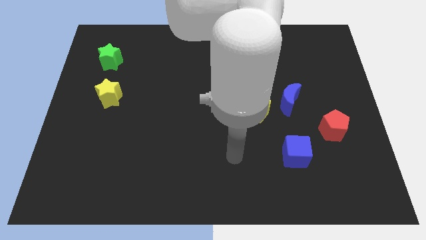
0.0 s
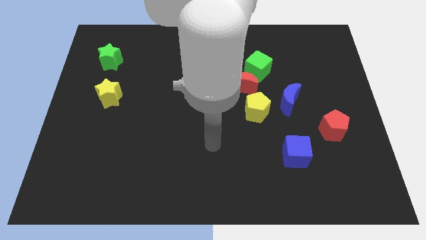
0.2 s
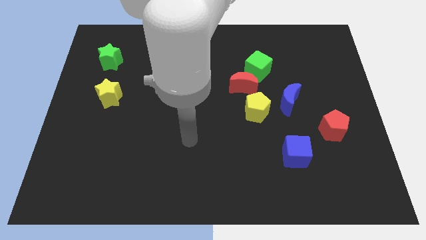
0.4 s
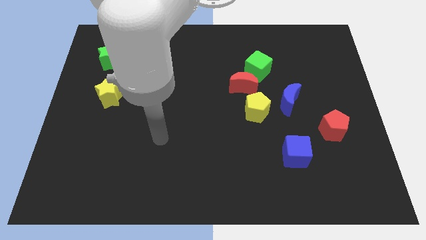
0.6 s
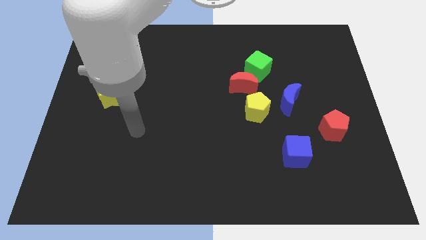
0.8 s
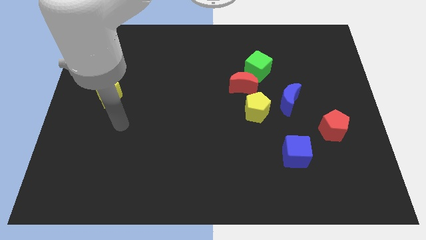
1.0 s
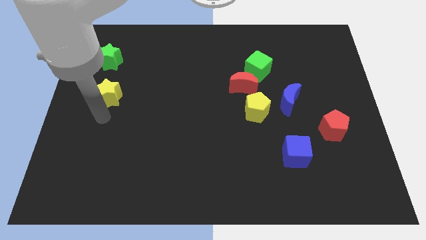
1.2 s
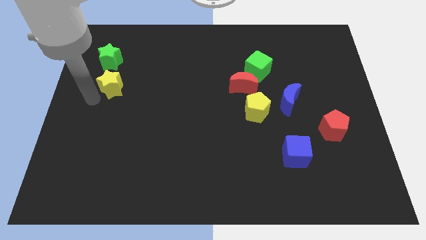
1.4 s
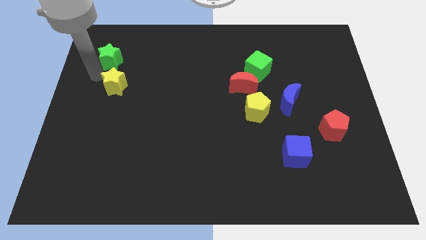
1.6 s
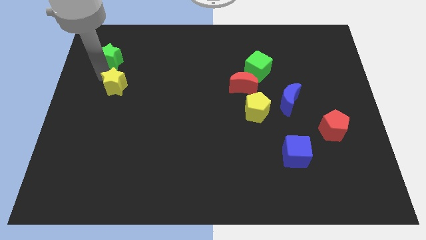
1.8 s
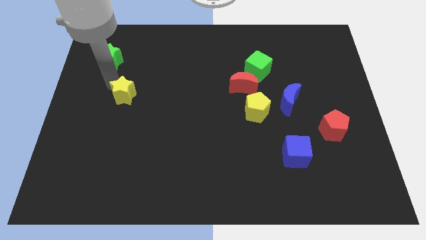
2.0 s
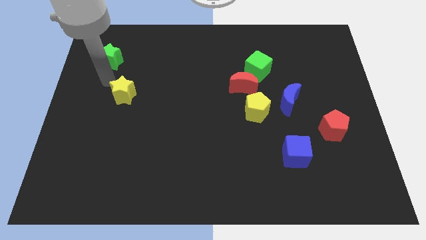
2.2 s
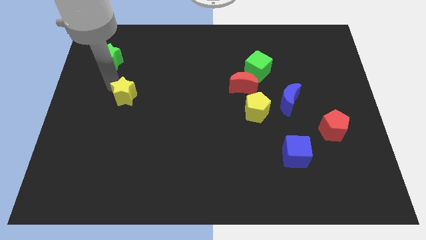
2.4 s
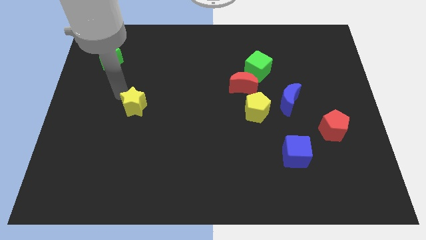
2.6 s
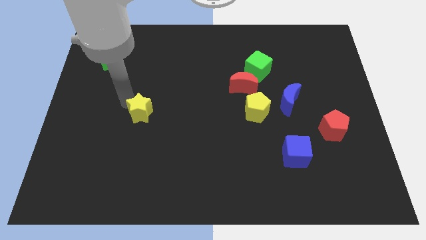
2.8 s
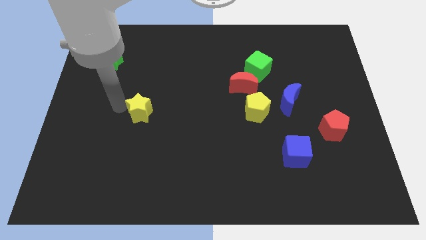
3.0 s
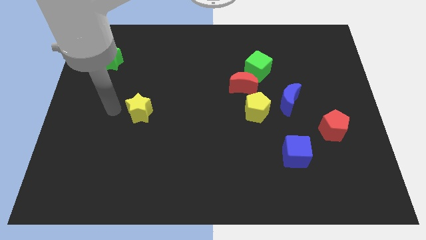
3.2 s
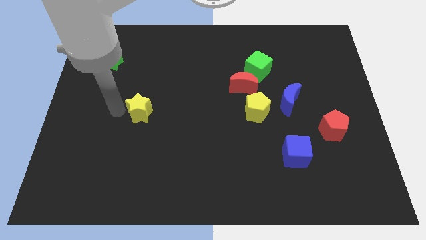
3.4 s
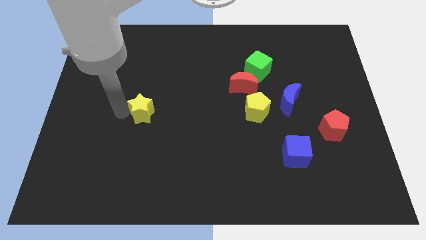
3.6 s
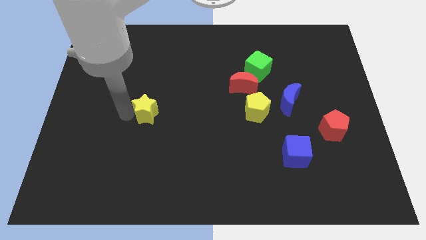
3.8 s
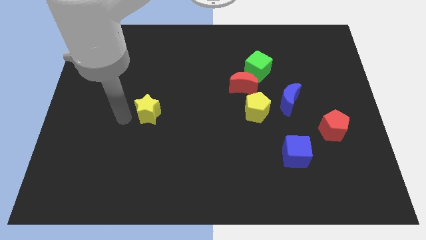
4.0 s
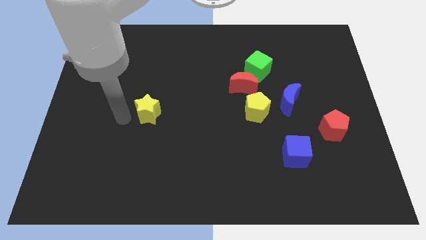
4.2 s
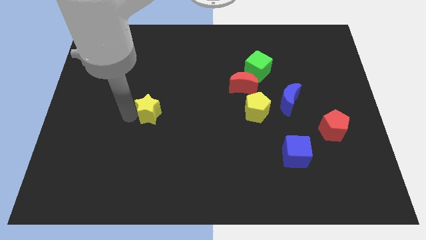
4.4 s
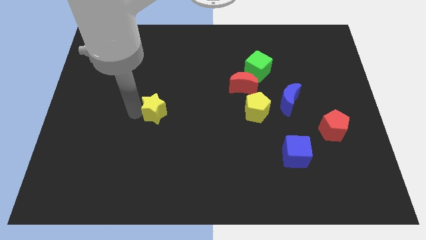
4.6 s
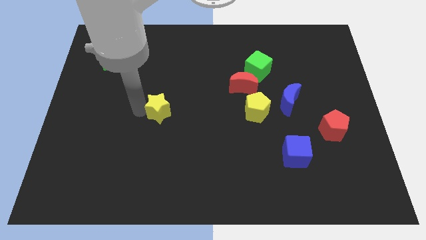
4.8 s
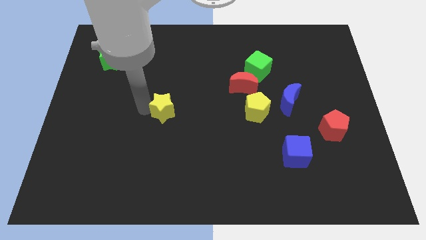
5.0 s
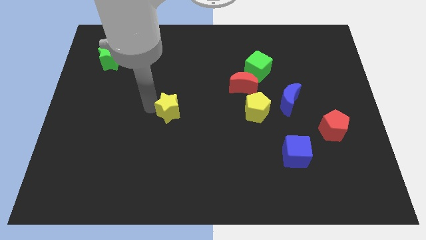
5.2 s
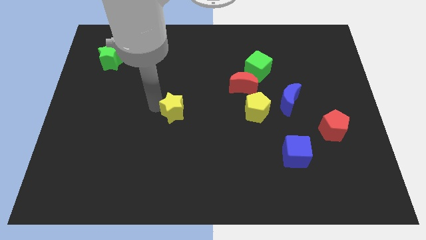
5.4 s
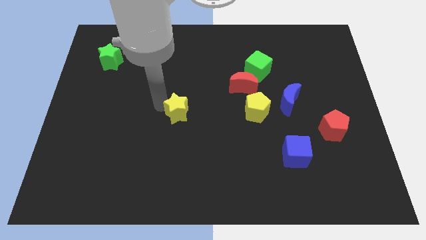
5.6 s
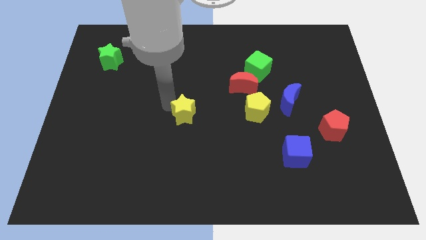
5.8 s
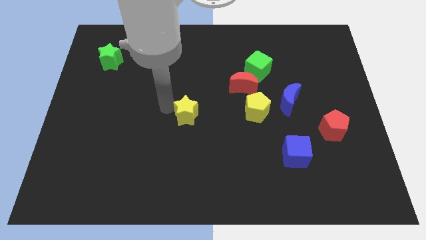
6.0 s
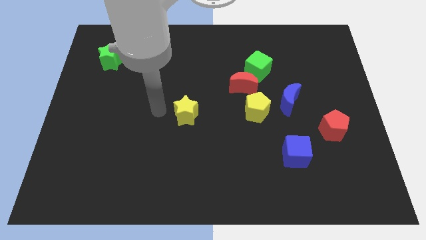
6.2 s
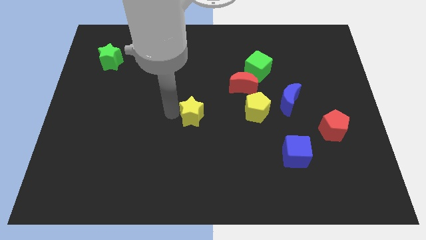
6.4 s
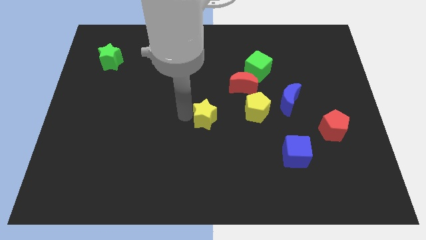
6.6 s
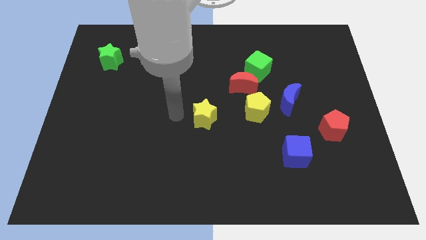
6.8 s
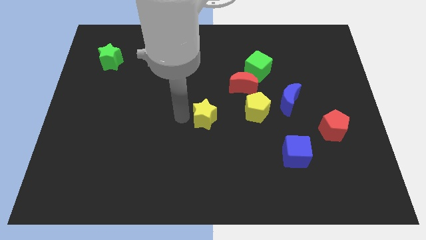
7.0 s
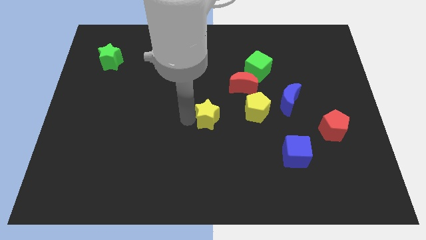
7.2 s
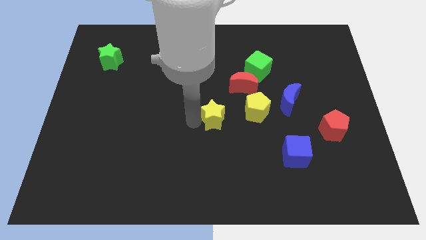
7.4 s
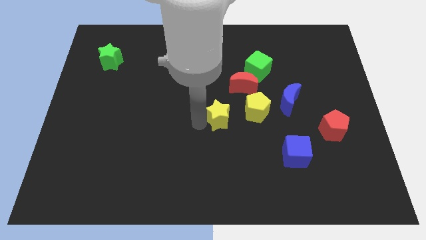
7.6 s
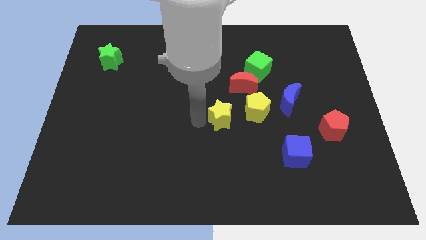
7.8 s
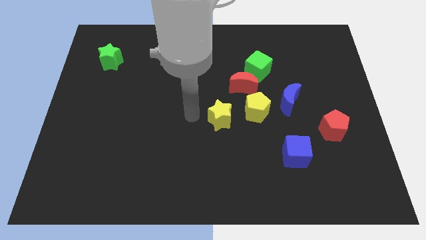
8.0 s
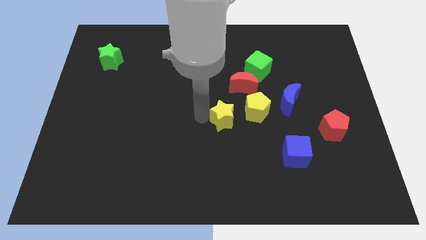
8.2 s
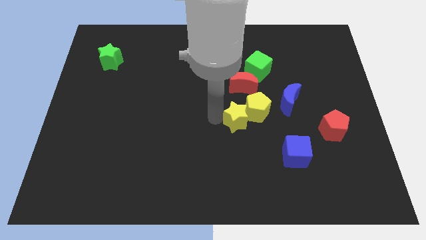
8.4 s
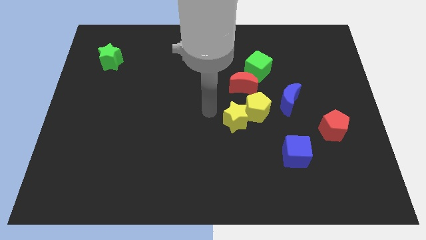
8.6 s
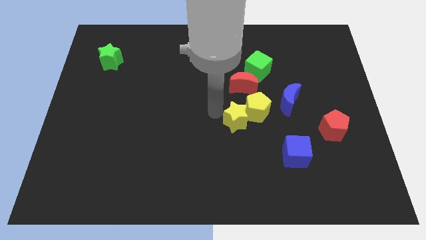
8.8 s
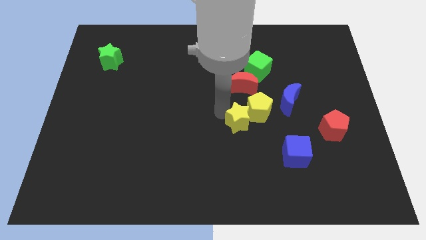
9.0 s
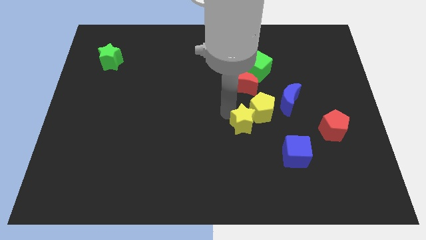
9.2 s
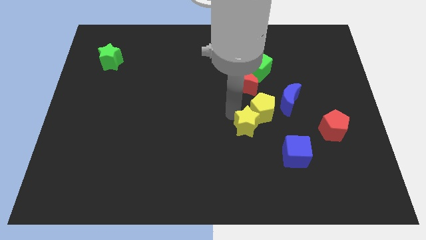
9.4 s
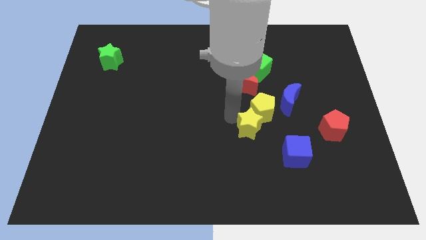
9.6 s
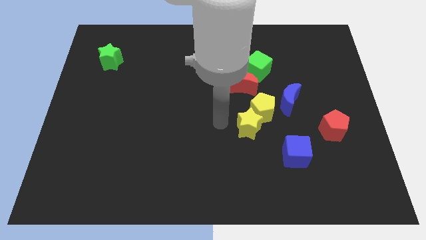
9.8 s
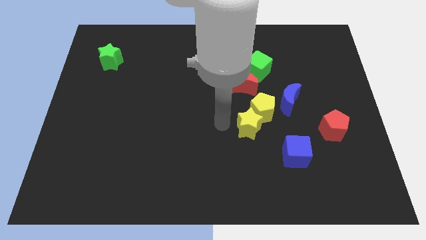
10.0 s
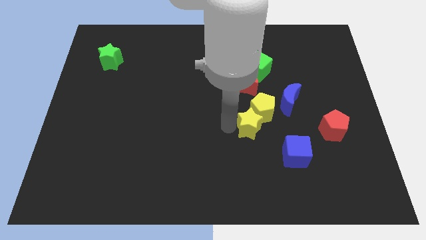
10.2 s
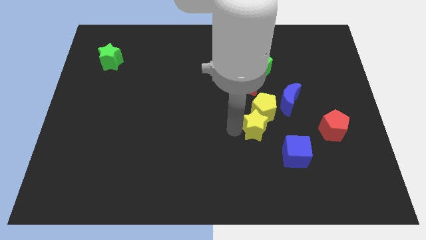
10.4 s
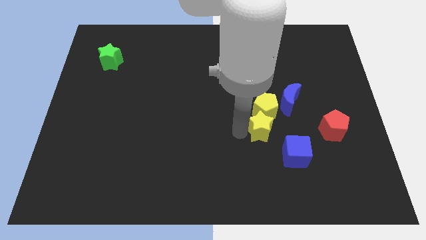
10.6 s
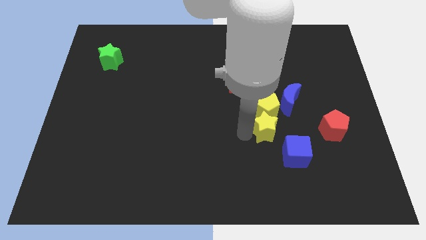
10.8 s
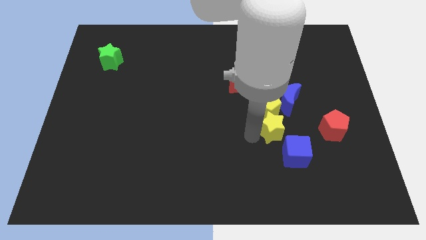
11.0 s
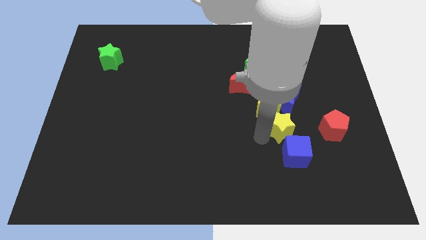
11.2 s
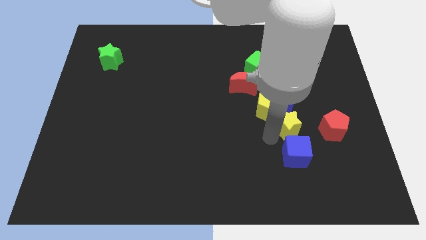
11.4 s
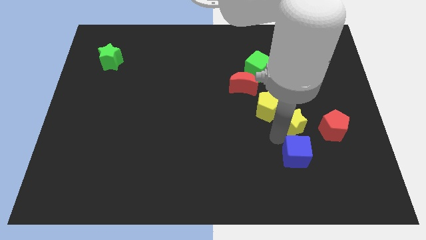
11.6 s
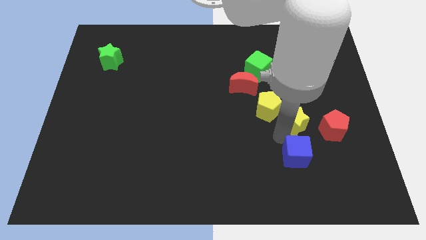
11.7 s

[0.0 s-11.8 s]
put the yellow star to the bottom right side of the blue moon

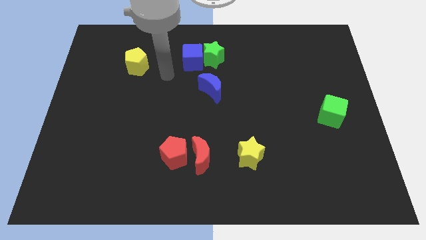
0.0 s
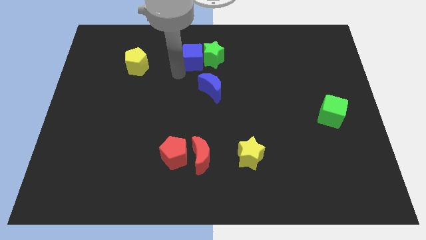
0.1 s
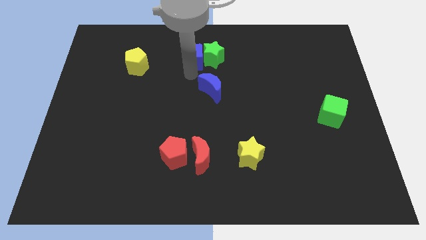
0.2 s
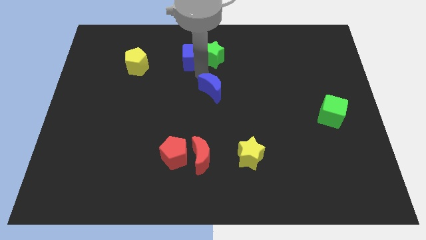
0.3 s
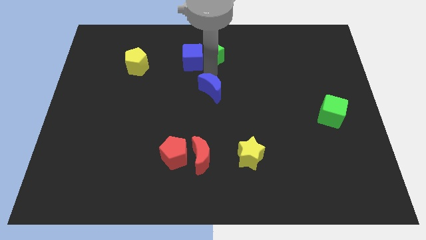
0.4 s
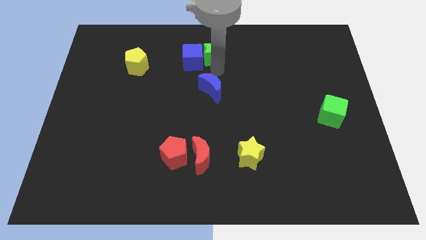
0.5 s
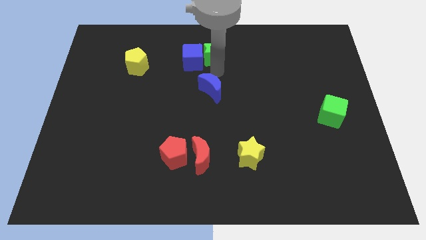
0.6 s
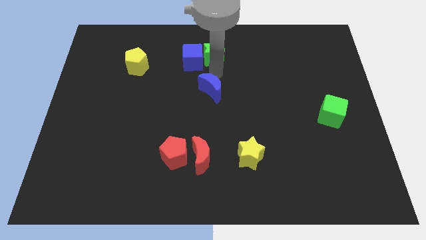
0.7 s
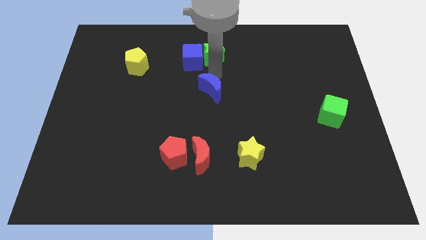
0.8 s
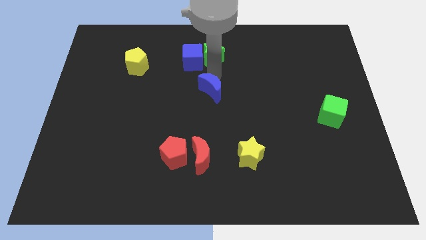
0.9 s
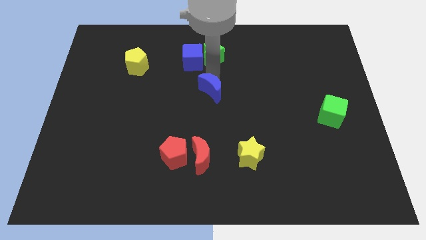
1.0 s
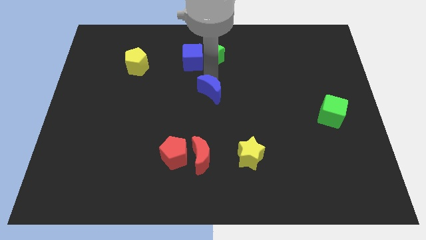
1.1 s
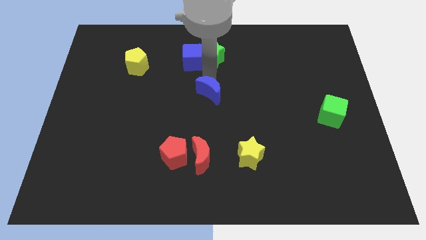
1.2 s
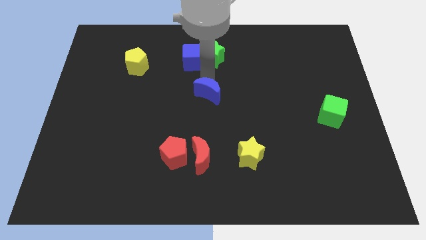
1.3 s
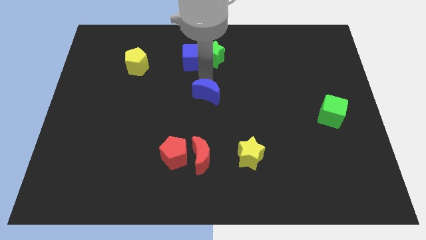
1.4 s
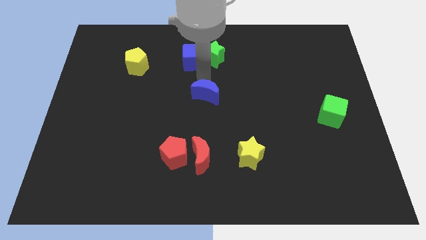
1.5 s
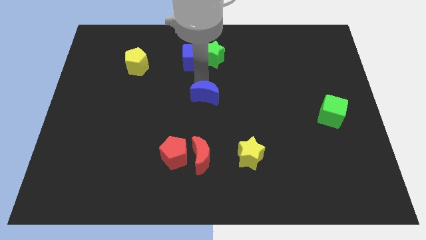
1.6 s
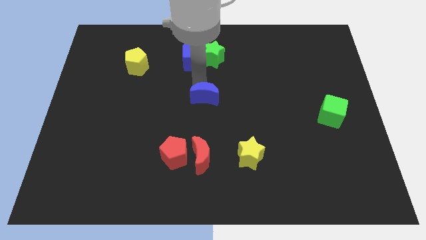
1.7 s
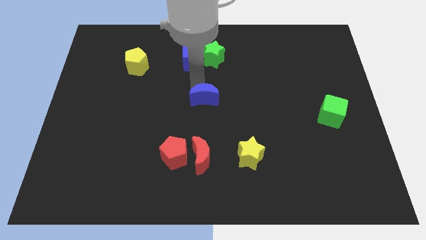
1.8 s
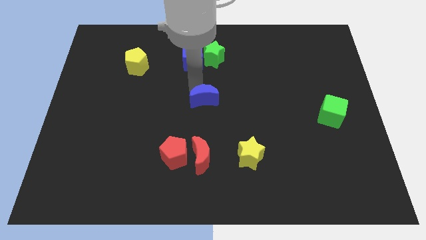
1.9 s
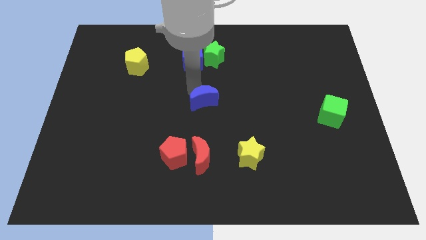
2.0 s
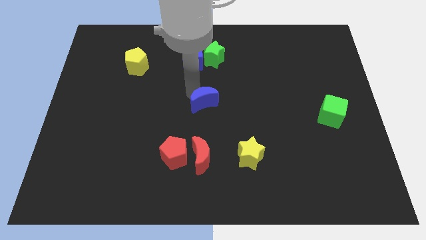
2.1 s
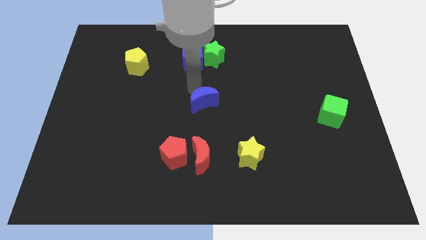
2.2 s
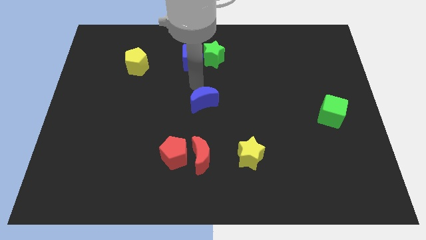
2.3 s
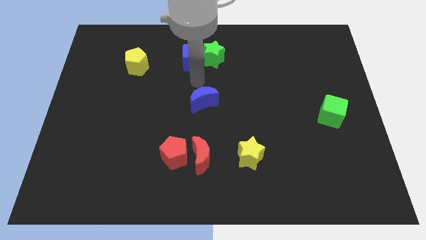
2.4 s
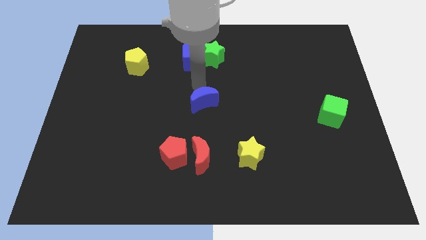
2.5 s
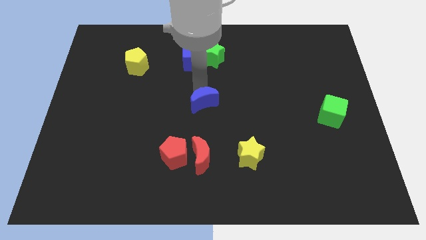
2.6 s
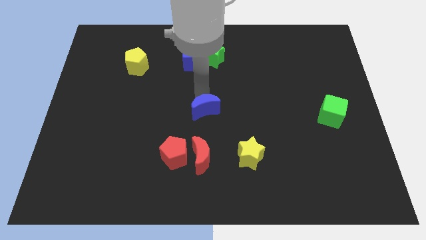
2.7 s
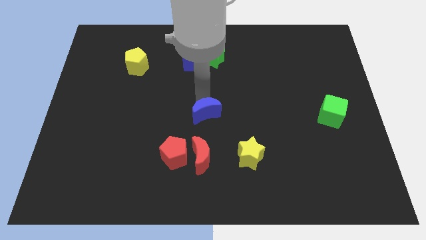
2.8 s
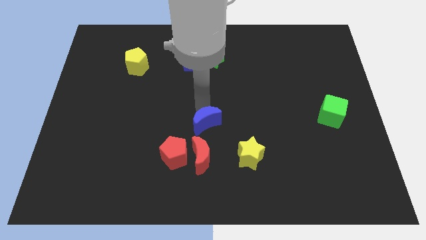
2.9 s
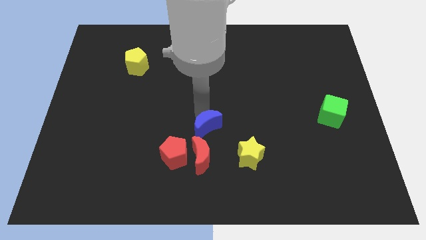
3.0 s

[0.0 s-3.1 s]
put the blue moon diagonally up and to the right of the red moon
